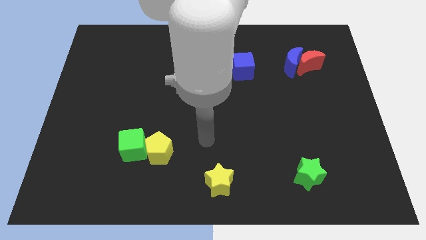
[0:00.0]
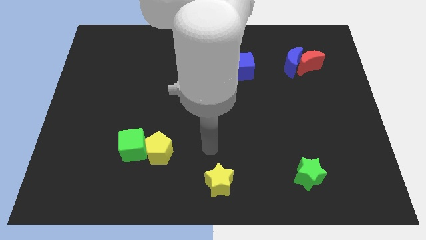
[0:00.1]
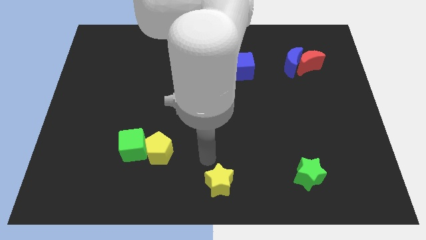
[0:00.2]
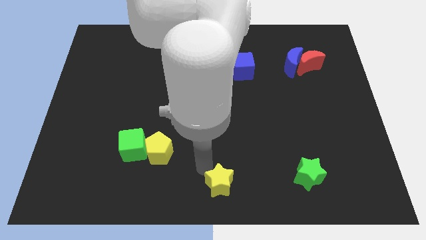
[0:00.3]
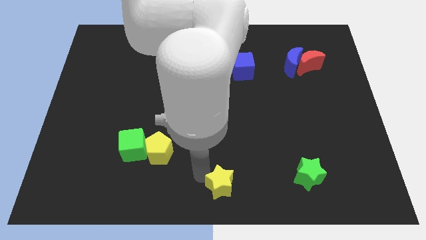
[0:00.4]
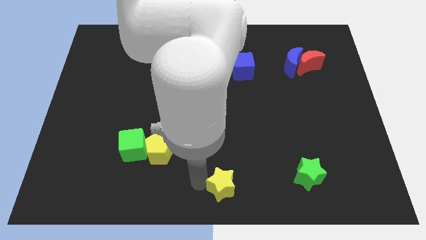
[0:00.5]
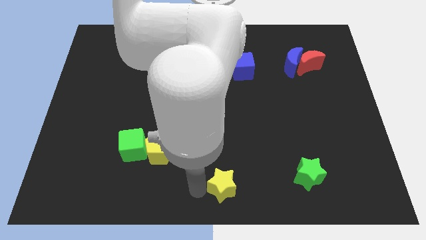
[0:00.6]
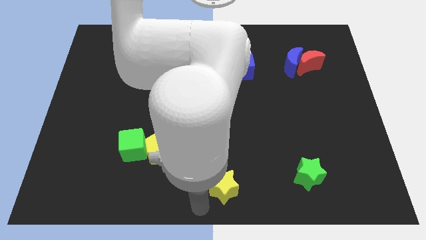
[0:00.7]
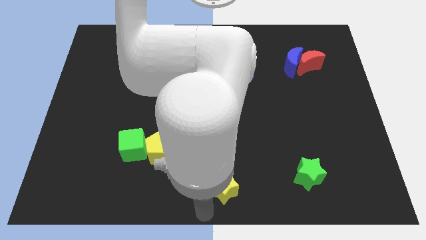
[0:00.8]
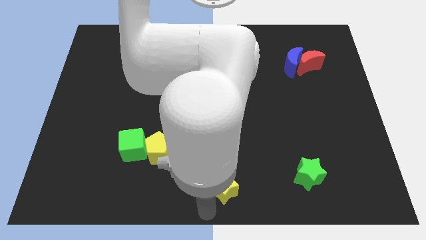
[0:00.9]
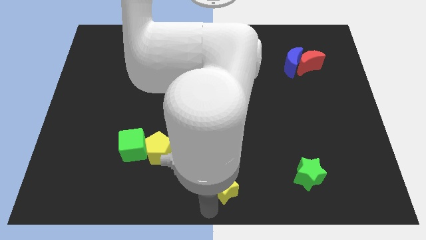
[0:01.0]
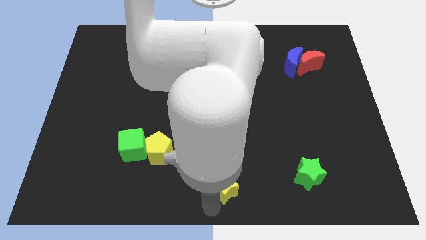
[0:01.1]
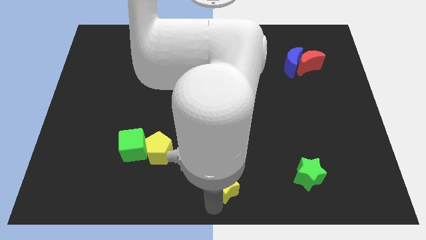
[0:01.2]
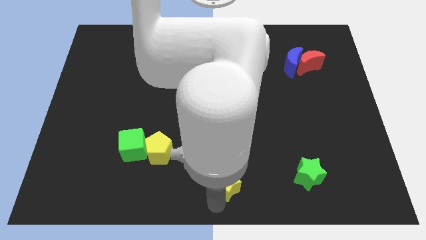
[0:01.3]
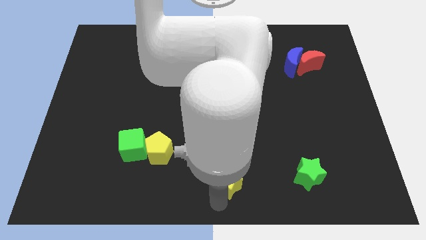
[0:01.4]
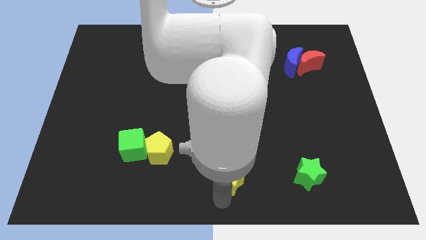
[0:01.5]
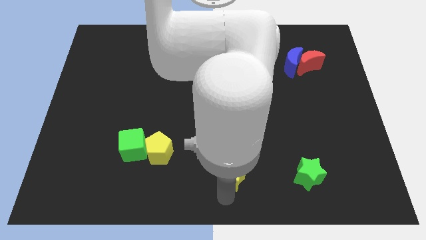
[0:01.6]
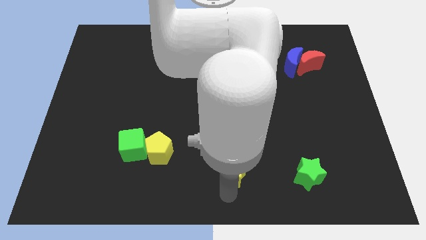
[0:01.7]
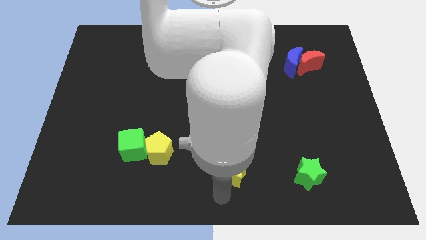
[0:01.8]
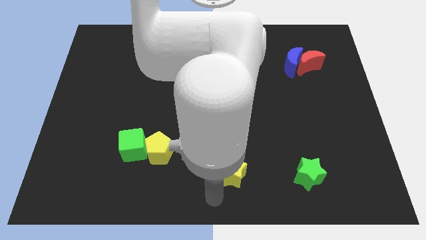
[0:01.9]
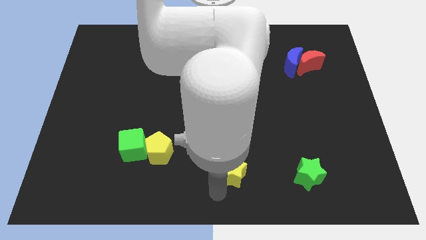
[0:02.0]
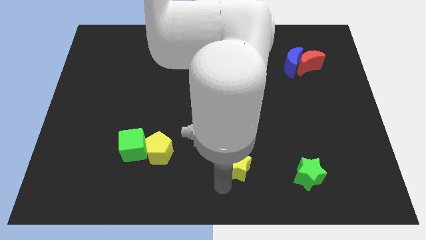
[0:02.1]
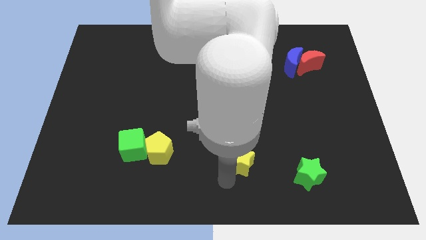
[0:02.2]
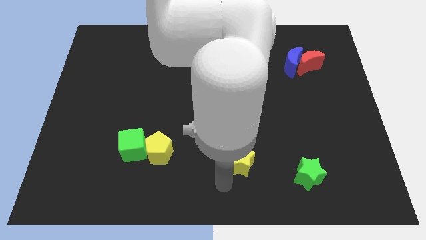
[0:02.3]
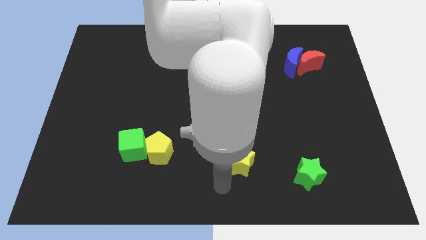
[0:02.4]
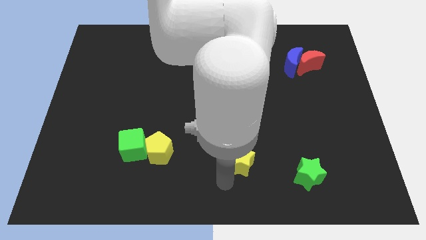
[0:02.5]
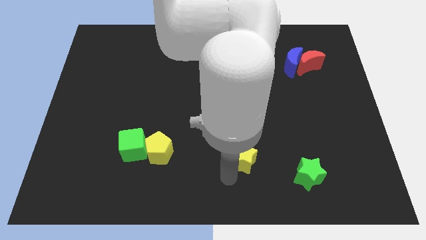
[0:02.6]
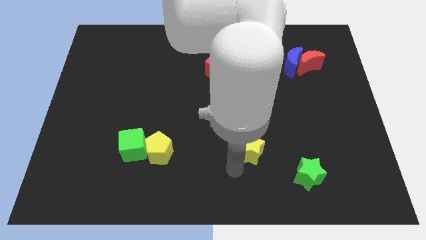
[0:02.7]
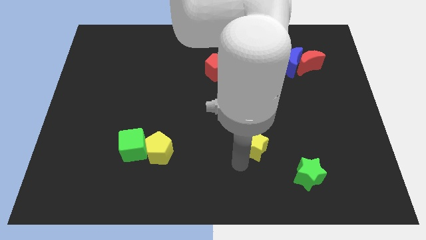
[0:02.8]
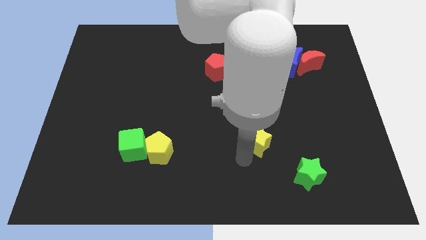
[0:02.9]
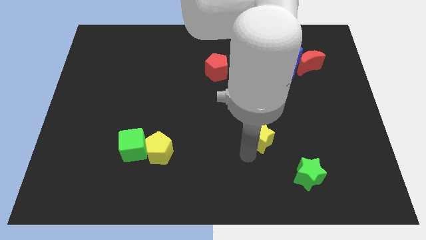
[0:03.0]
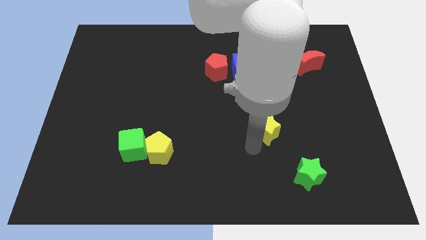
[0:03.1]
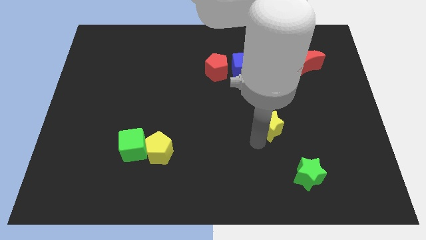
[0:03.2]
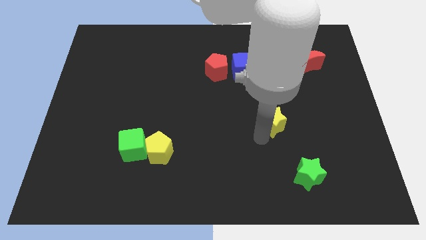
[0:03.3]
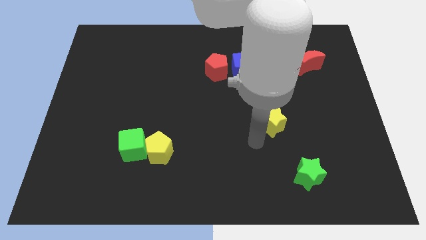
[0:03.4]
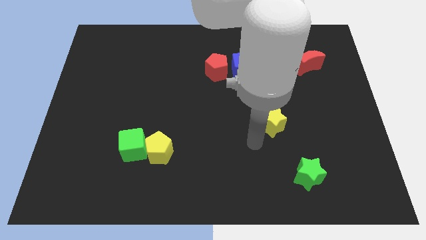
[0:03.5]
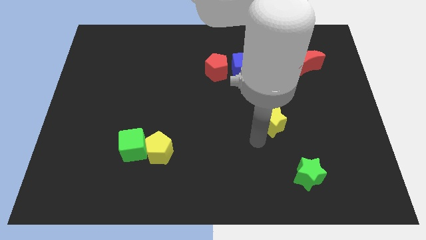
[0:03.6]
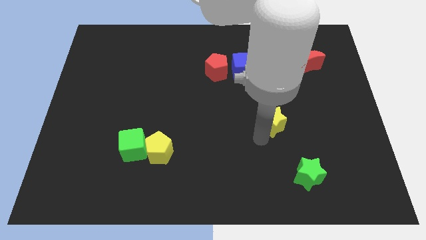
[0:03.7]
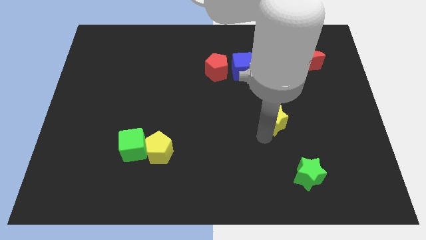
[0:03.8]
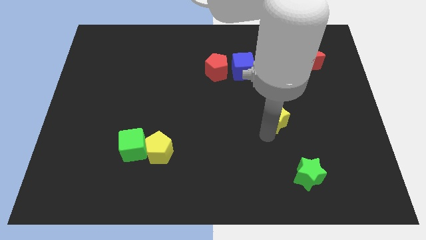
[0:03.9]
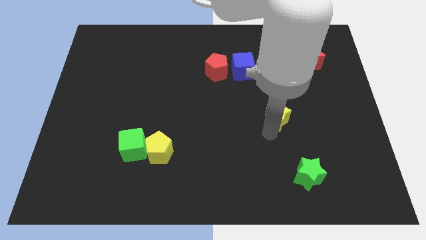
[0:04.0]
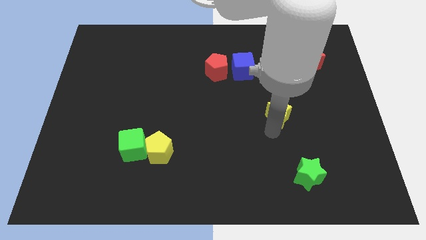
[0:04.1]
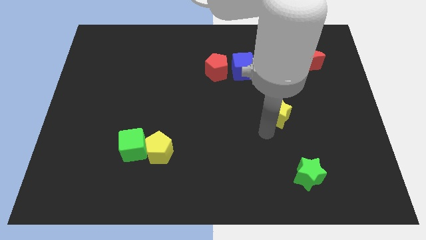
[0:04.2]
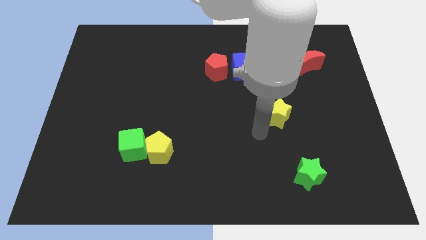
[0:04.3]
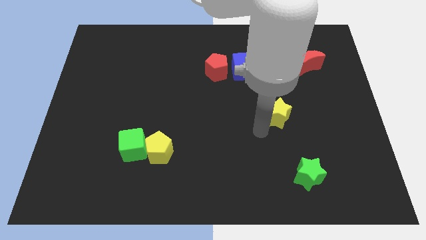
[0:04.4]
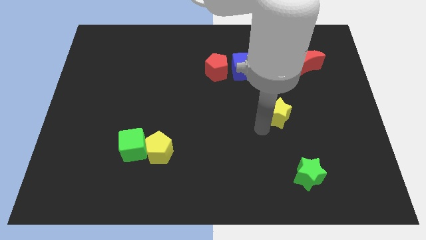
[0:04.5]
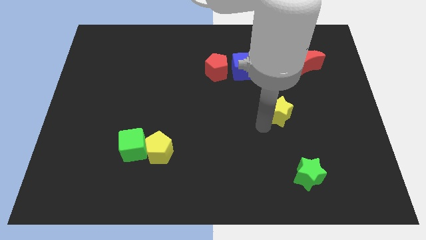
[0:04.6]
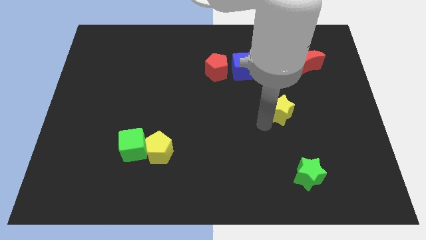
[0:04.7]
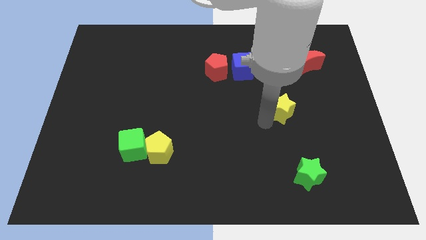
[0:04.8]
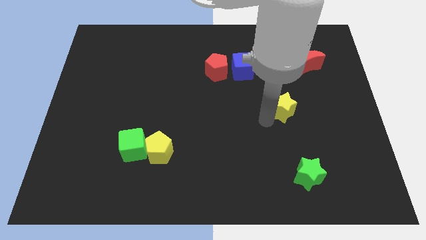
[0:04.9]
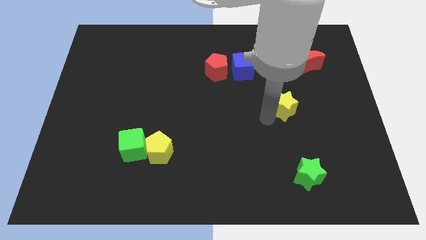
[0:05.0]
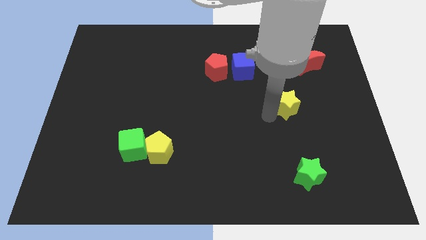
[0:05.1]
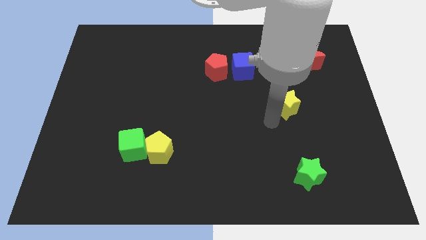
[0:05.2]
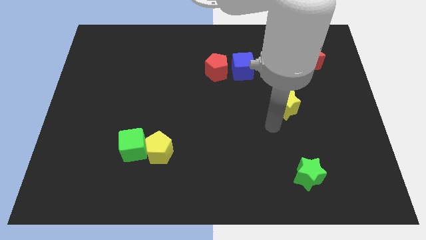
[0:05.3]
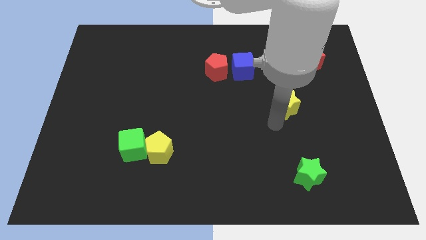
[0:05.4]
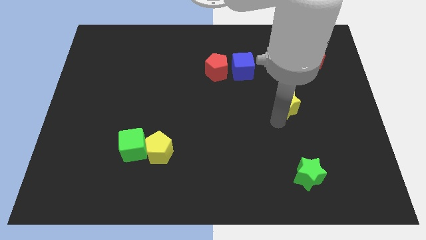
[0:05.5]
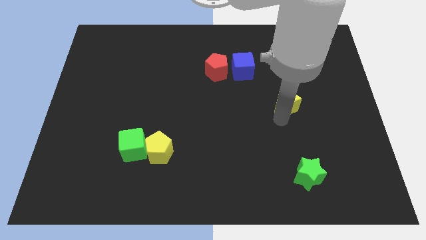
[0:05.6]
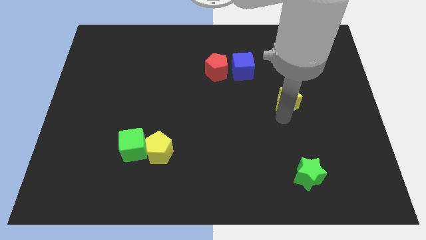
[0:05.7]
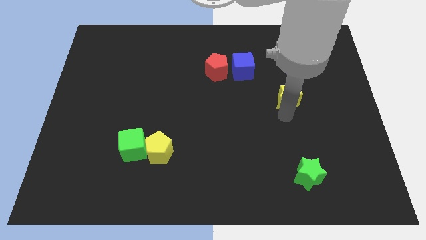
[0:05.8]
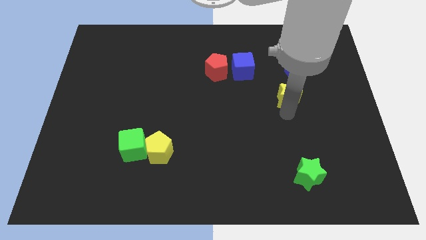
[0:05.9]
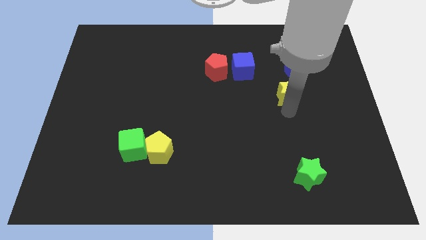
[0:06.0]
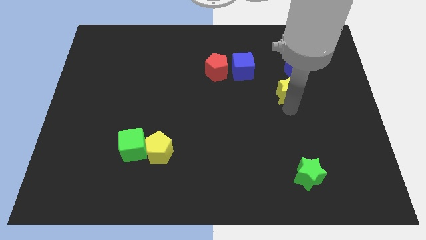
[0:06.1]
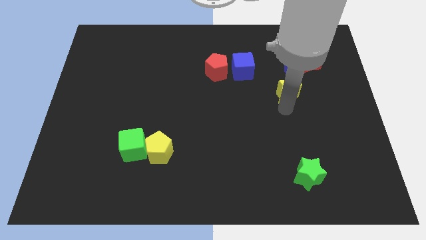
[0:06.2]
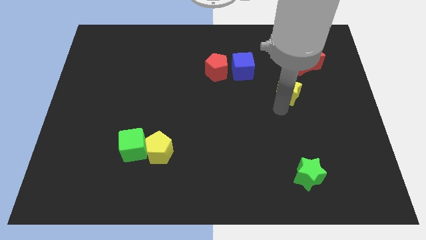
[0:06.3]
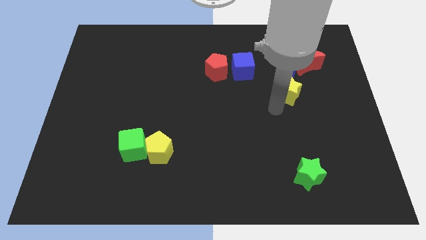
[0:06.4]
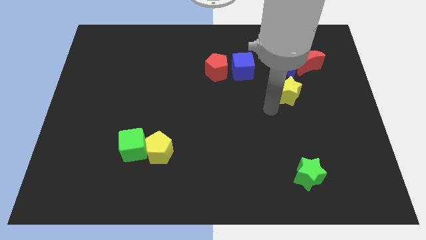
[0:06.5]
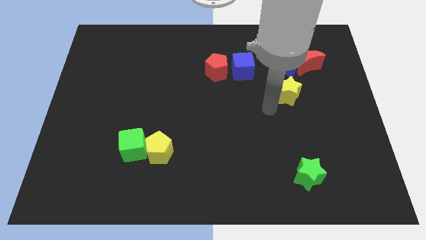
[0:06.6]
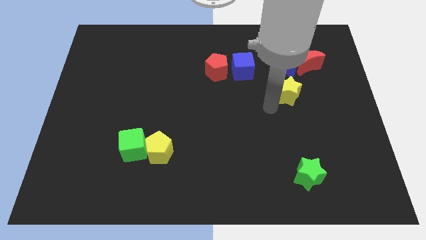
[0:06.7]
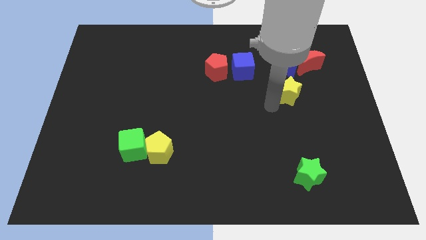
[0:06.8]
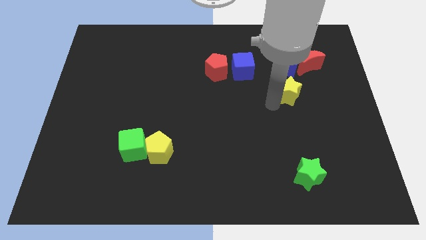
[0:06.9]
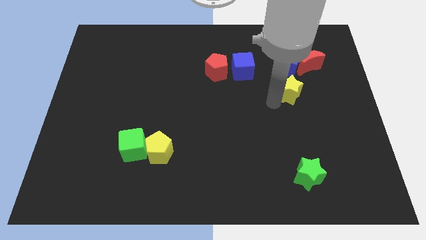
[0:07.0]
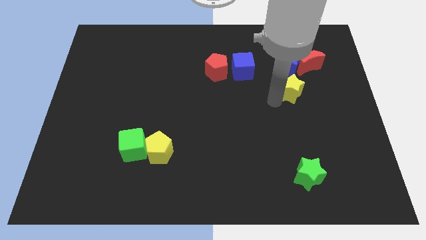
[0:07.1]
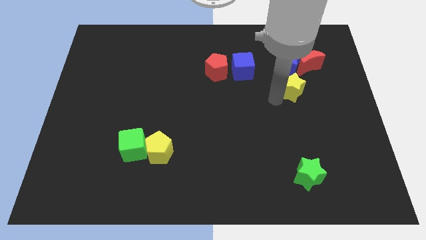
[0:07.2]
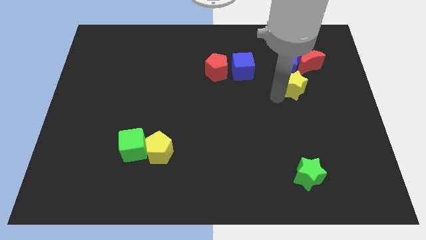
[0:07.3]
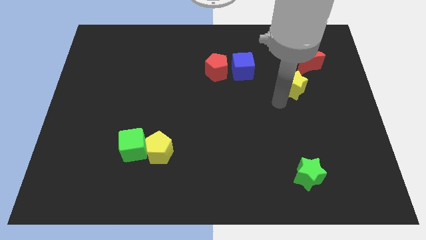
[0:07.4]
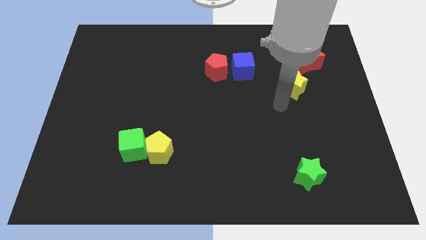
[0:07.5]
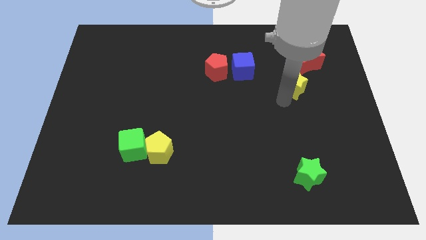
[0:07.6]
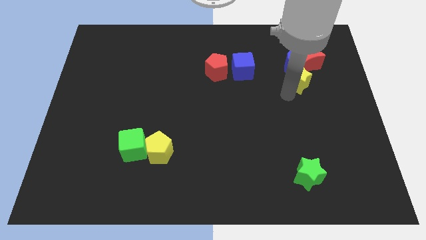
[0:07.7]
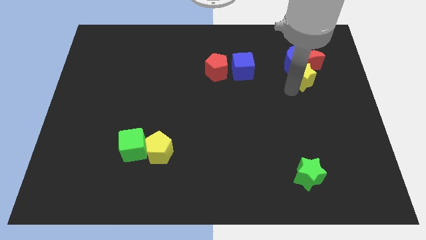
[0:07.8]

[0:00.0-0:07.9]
put the yellow star towards the red moon

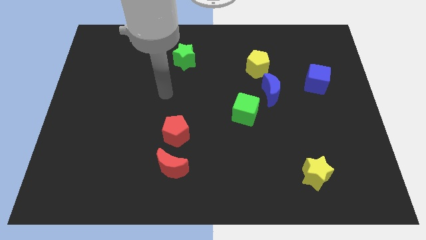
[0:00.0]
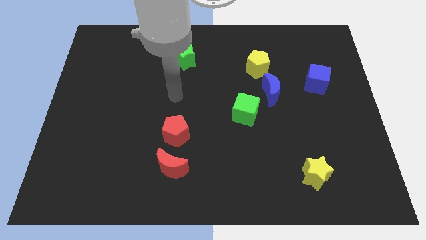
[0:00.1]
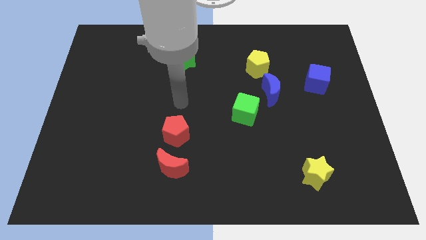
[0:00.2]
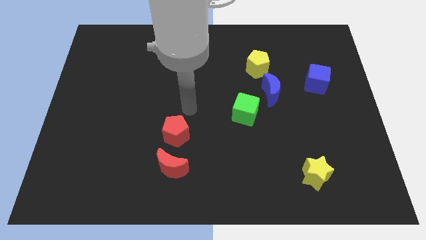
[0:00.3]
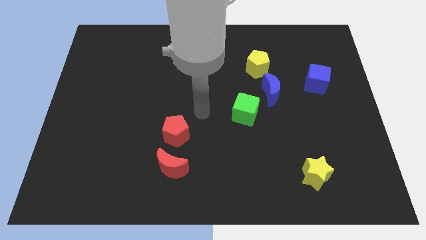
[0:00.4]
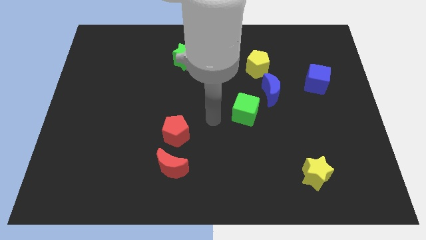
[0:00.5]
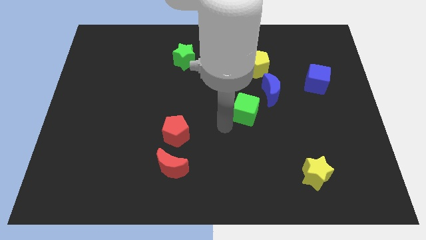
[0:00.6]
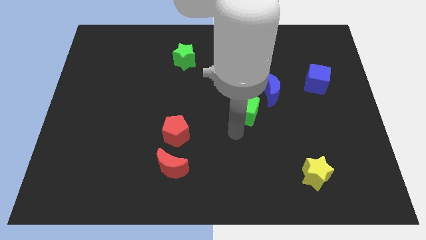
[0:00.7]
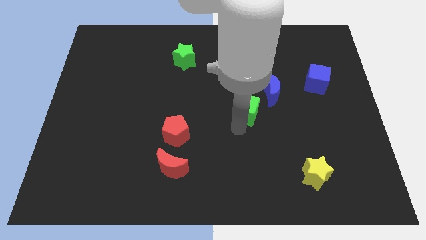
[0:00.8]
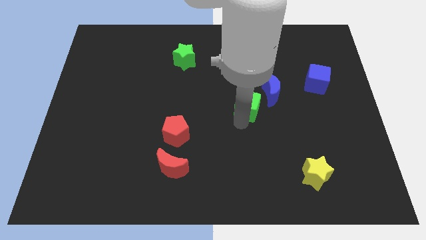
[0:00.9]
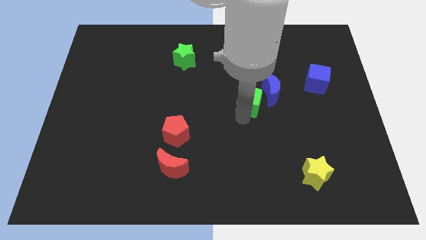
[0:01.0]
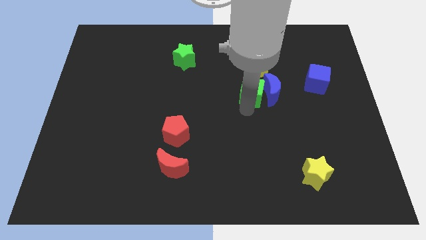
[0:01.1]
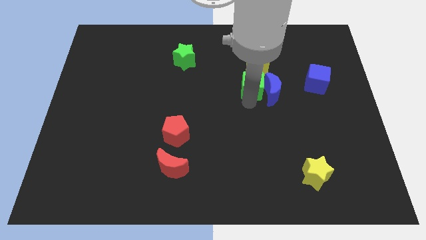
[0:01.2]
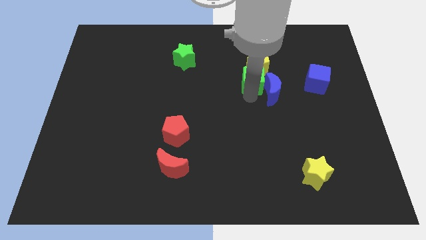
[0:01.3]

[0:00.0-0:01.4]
push the green cube towards the yellow pentagon
